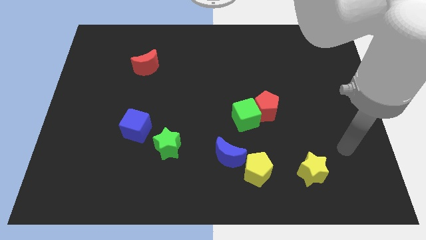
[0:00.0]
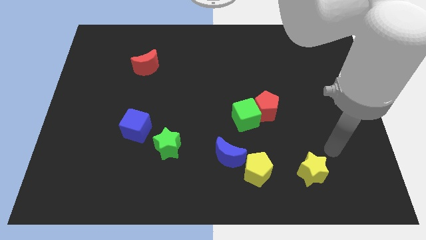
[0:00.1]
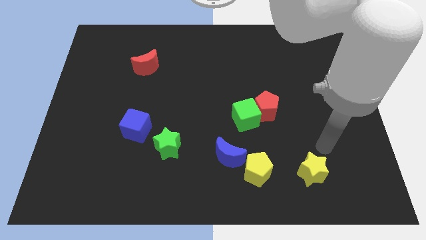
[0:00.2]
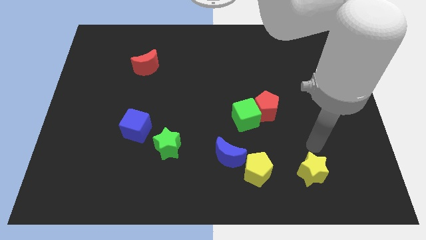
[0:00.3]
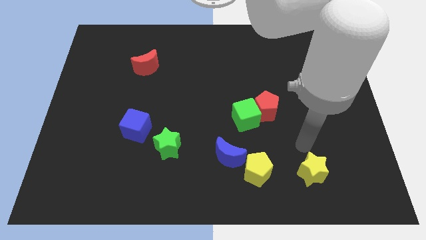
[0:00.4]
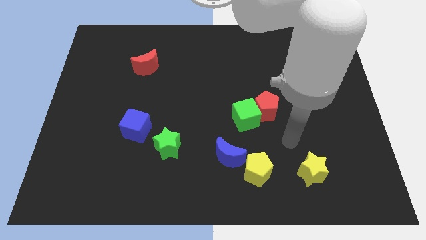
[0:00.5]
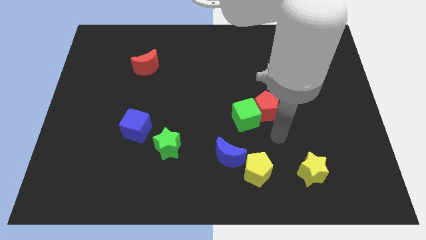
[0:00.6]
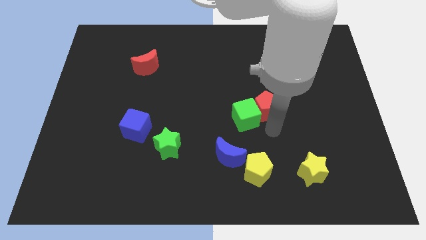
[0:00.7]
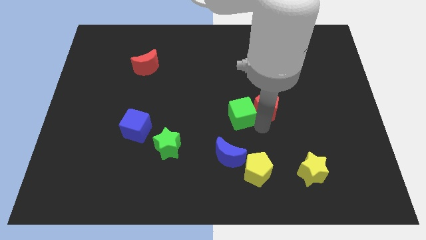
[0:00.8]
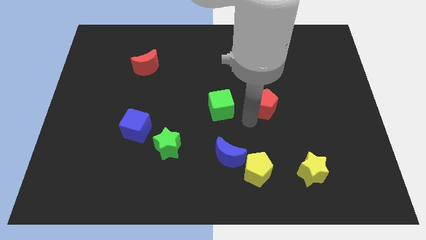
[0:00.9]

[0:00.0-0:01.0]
pull the red pentagon apart from the green cube

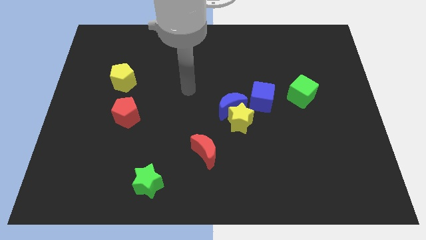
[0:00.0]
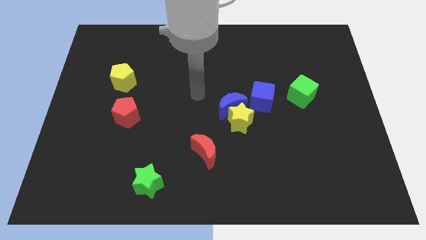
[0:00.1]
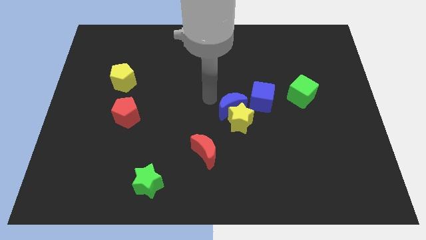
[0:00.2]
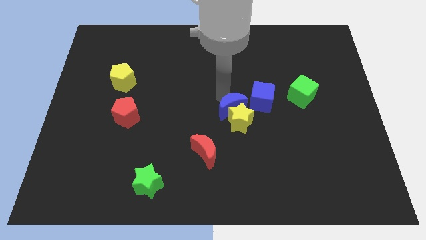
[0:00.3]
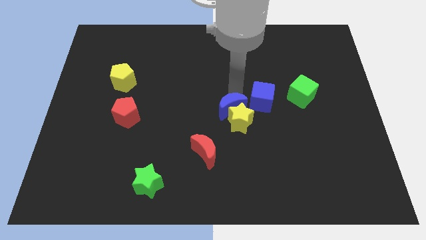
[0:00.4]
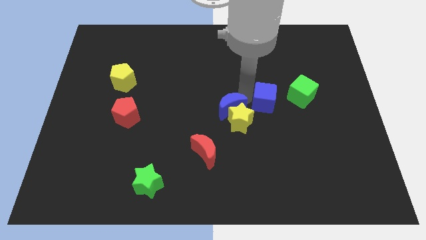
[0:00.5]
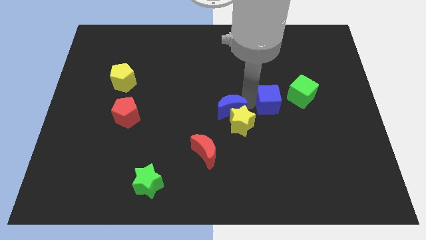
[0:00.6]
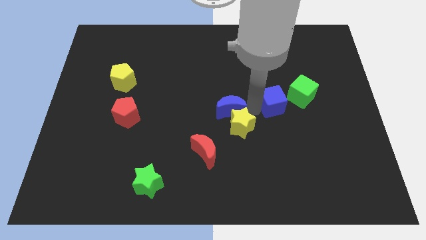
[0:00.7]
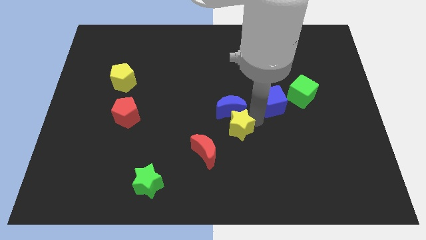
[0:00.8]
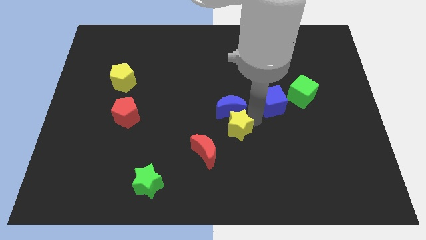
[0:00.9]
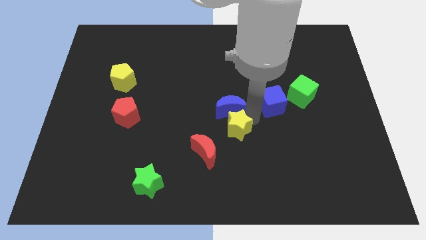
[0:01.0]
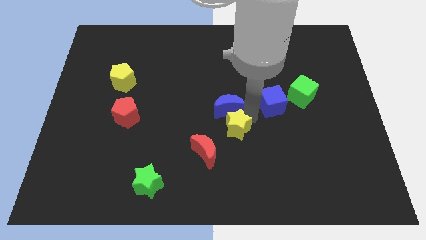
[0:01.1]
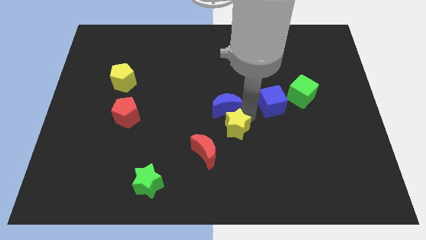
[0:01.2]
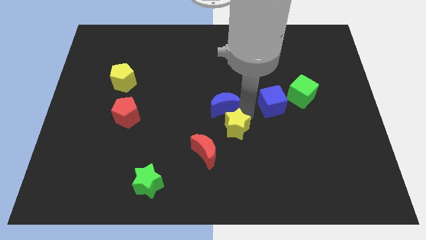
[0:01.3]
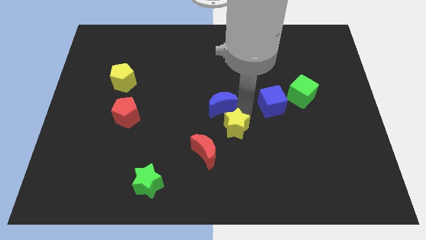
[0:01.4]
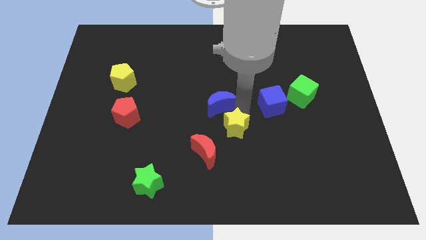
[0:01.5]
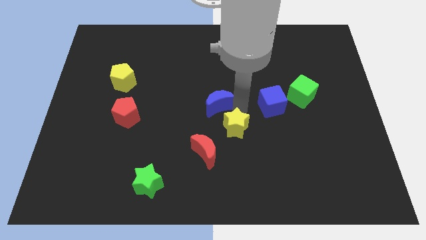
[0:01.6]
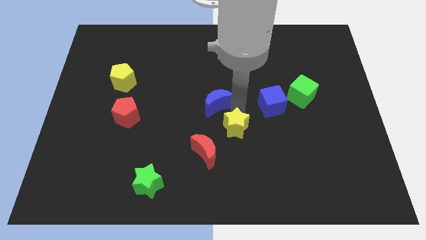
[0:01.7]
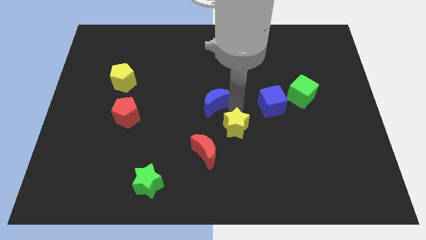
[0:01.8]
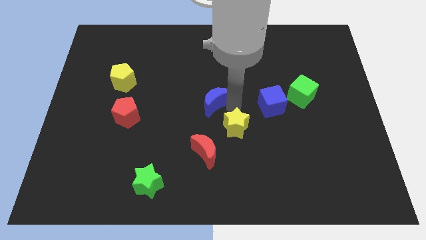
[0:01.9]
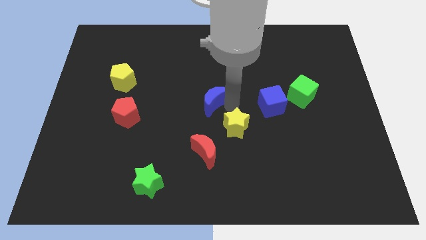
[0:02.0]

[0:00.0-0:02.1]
pull the blue moon apart from the yellow star and blue cube

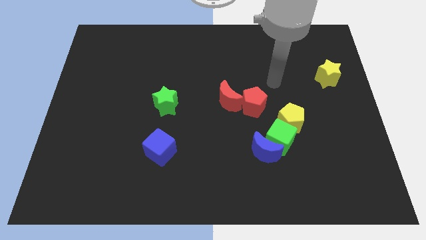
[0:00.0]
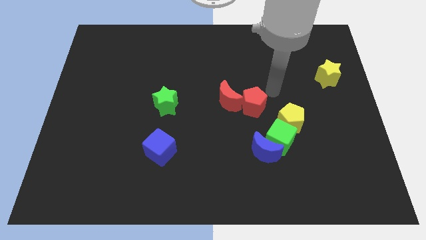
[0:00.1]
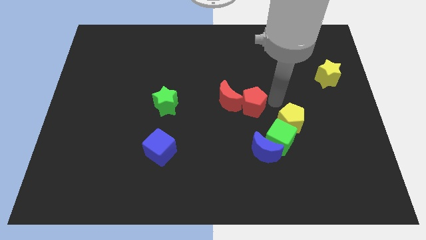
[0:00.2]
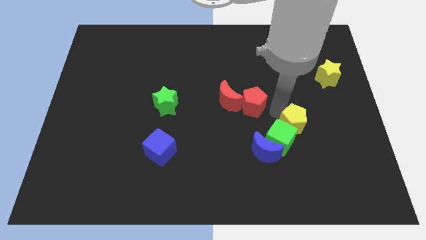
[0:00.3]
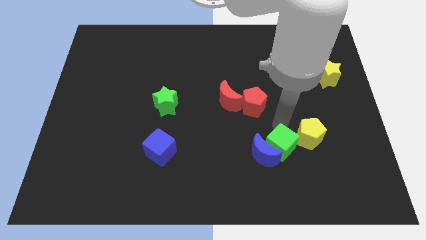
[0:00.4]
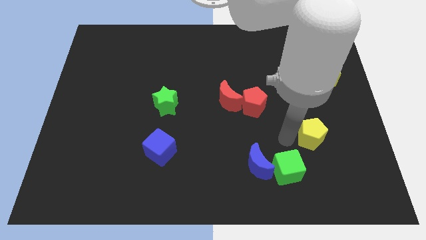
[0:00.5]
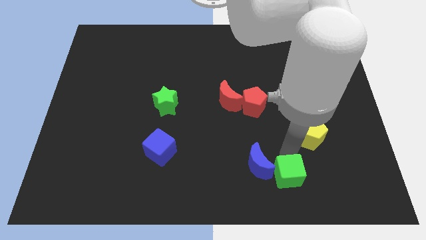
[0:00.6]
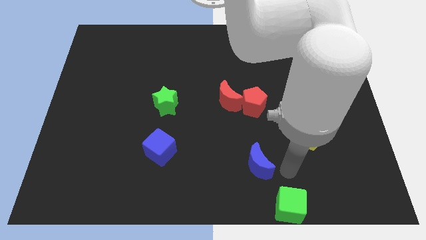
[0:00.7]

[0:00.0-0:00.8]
pull the blue moon apart from the green cube

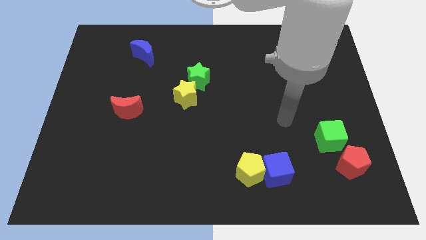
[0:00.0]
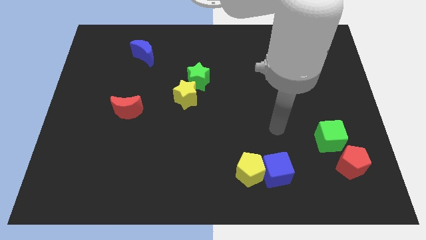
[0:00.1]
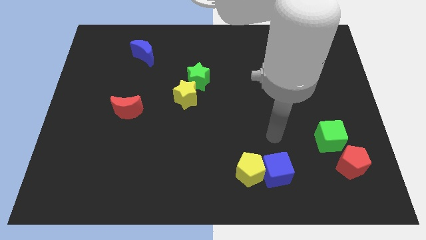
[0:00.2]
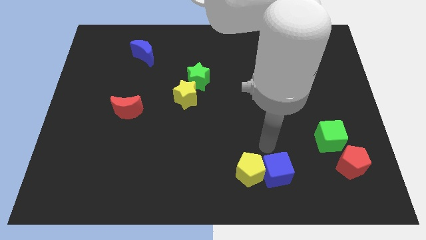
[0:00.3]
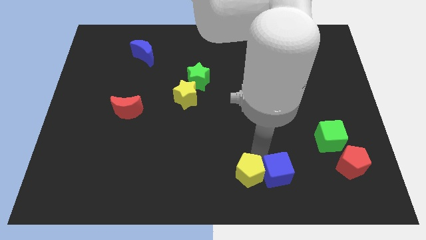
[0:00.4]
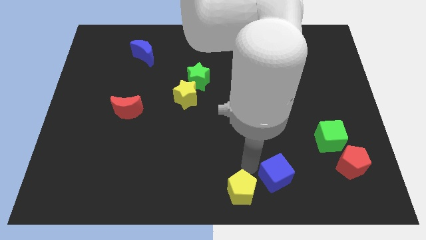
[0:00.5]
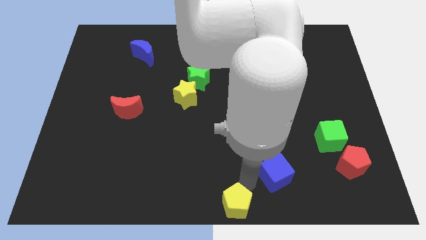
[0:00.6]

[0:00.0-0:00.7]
move the blue cube away from the yellow pentagon

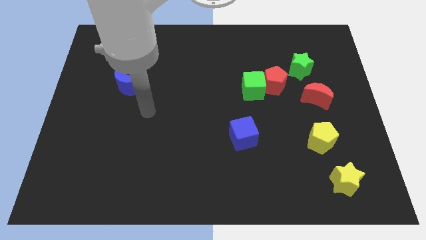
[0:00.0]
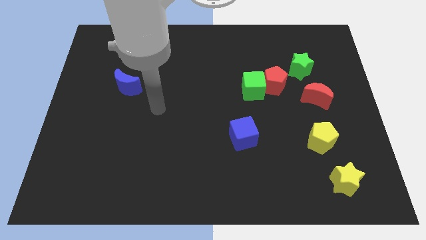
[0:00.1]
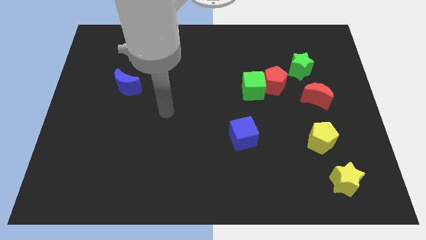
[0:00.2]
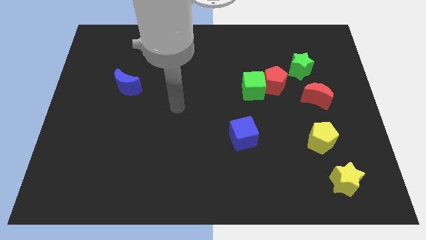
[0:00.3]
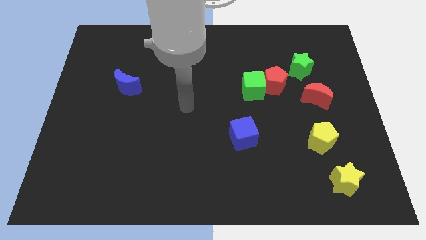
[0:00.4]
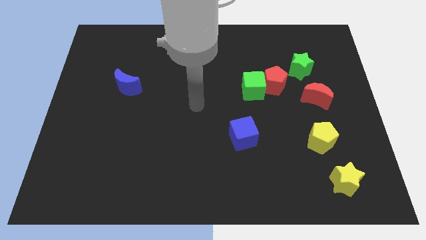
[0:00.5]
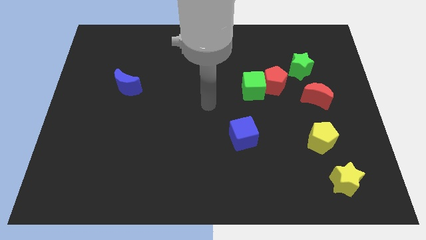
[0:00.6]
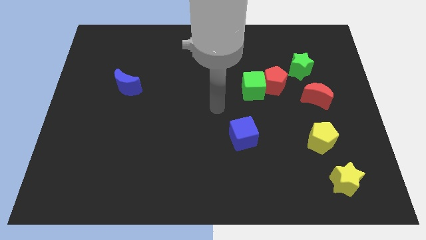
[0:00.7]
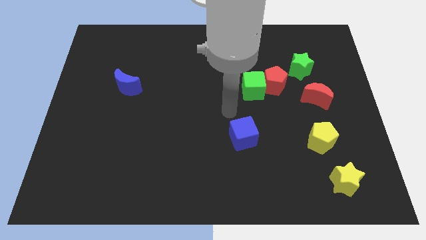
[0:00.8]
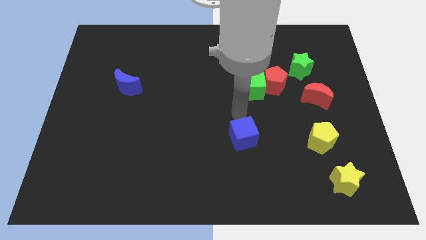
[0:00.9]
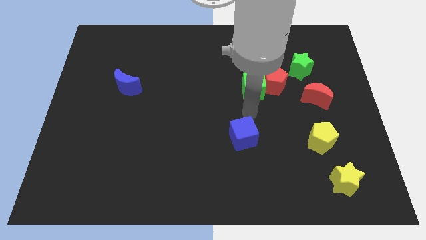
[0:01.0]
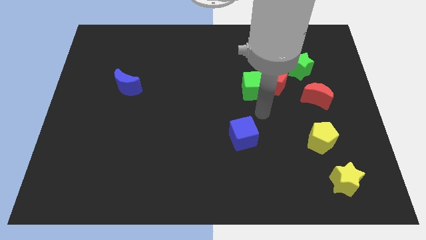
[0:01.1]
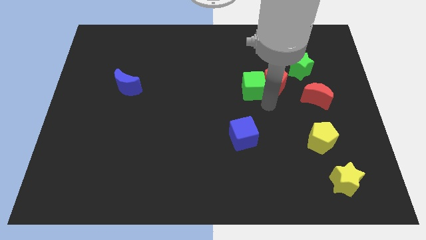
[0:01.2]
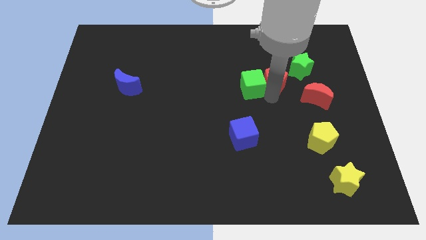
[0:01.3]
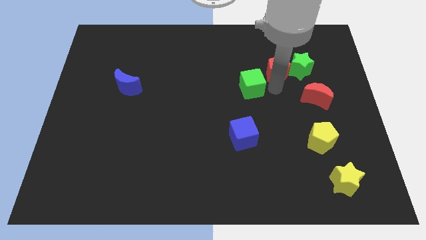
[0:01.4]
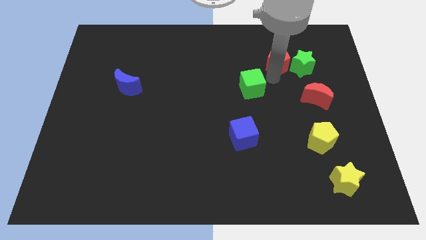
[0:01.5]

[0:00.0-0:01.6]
separate the green cube from the red pentagon

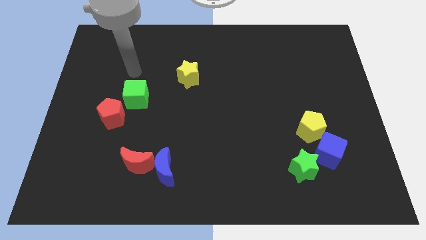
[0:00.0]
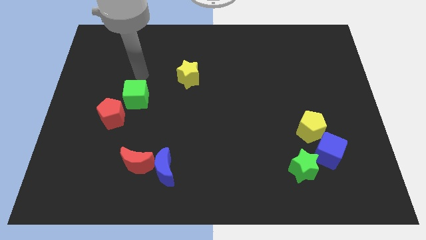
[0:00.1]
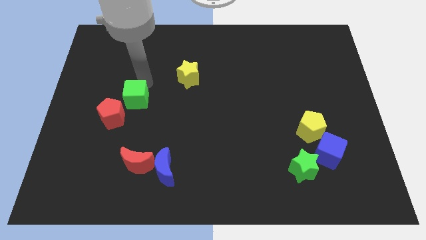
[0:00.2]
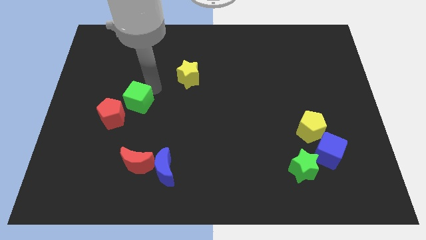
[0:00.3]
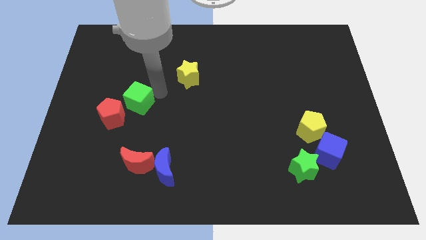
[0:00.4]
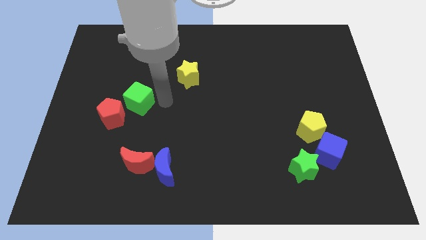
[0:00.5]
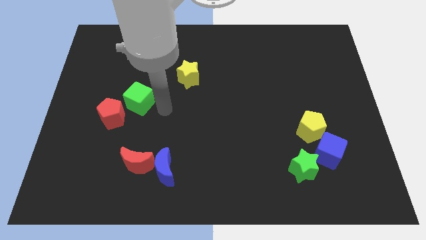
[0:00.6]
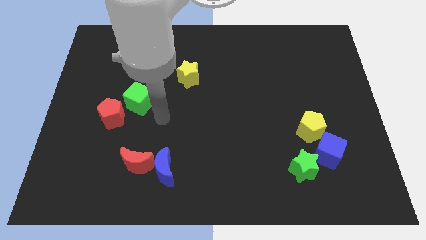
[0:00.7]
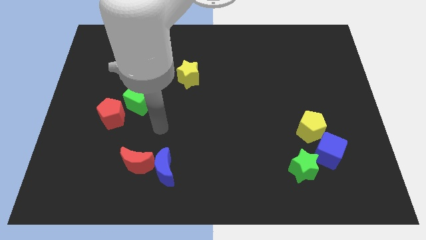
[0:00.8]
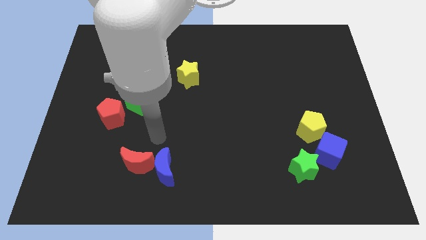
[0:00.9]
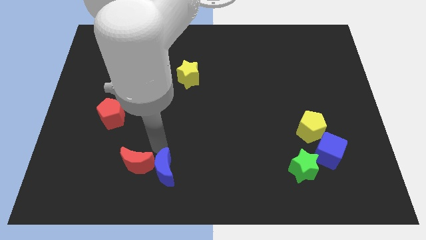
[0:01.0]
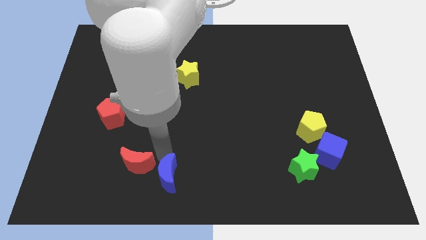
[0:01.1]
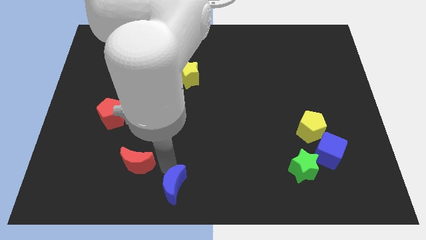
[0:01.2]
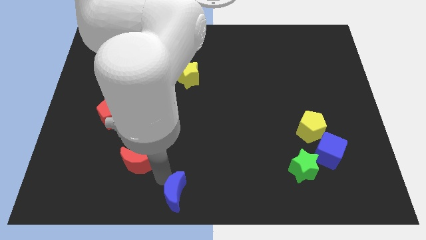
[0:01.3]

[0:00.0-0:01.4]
move the red moon away from the blue moon

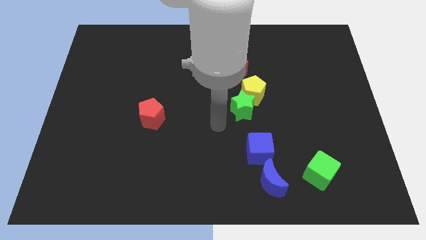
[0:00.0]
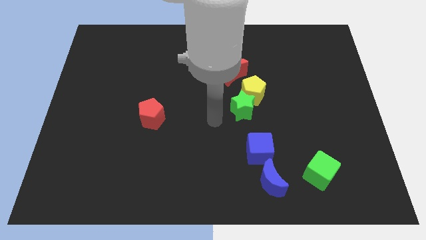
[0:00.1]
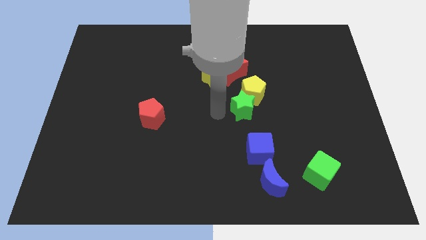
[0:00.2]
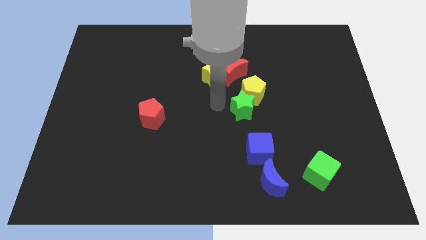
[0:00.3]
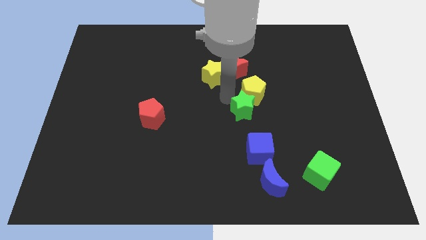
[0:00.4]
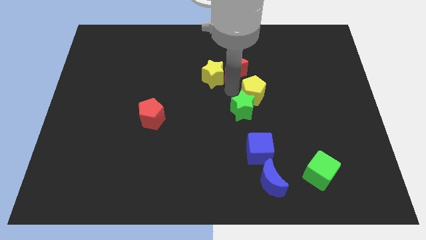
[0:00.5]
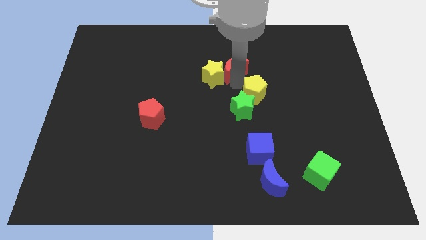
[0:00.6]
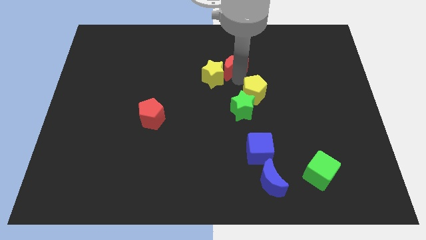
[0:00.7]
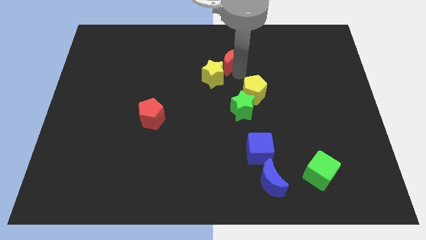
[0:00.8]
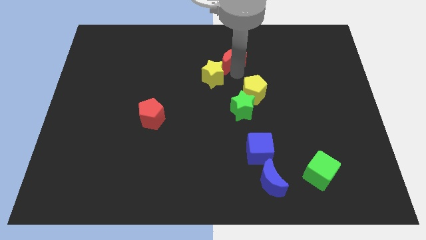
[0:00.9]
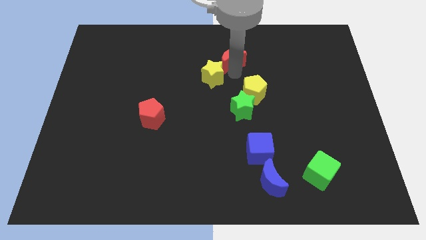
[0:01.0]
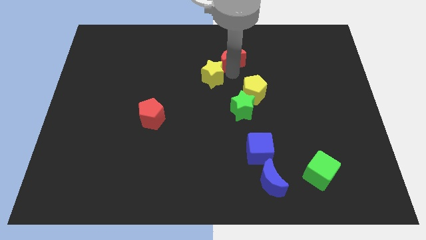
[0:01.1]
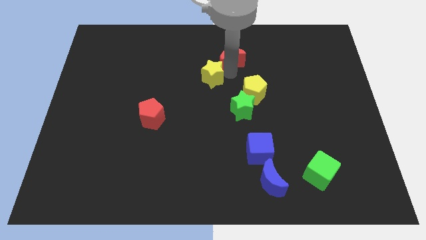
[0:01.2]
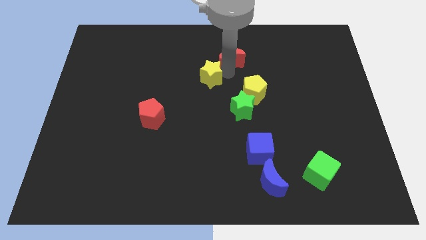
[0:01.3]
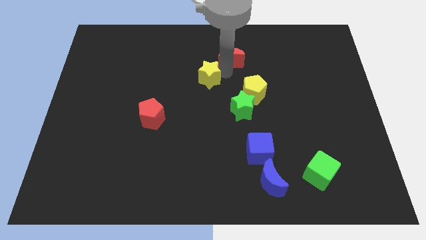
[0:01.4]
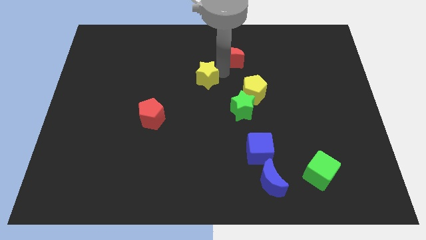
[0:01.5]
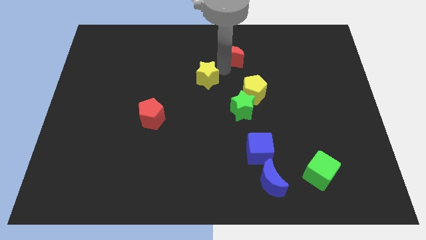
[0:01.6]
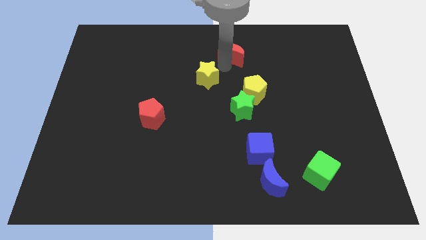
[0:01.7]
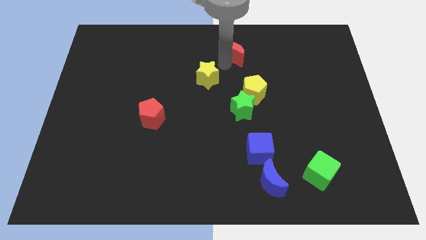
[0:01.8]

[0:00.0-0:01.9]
pull the yellow star apart from the red moon
